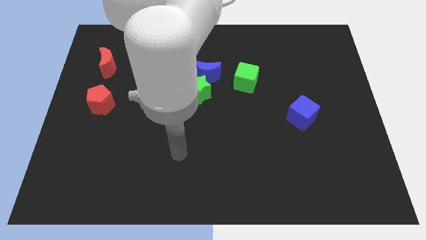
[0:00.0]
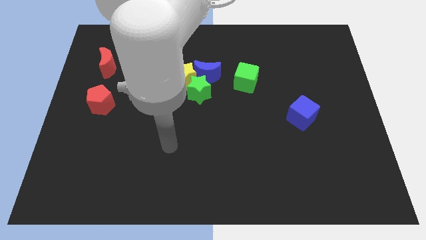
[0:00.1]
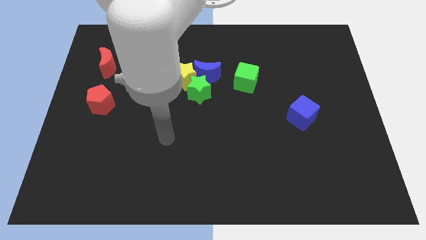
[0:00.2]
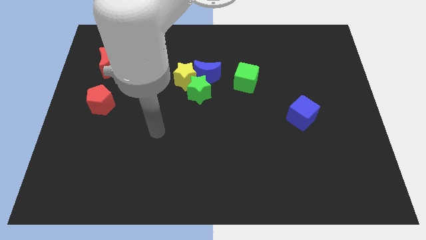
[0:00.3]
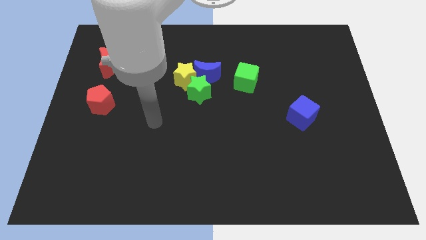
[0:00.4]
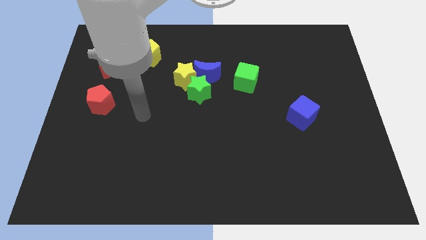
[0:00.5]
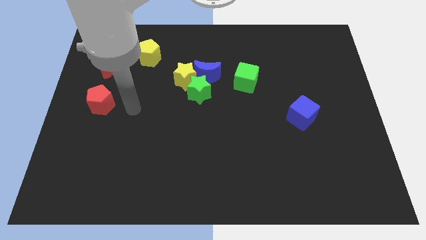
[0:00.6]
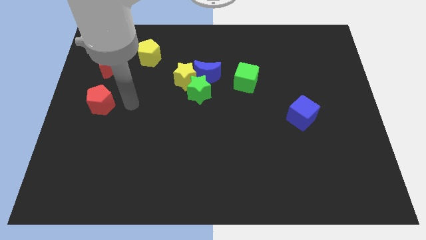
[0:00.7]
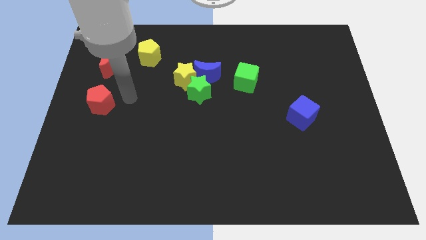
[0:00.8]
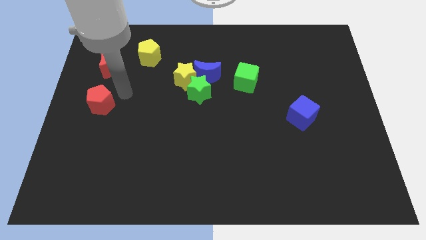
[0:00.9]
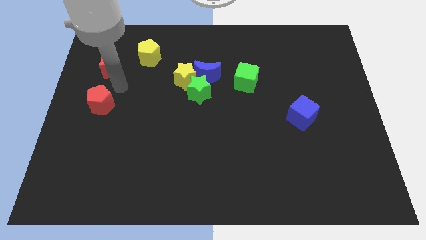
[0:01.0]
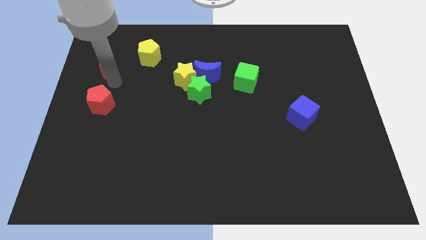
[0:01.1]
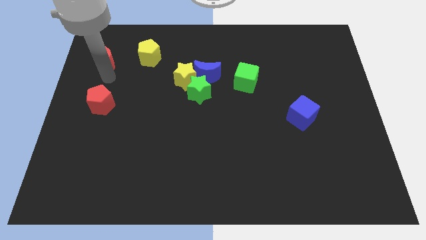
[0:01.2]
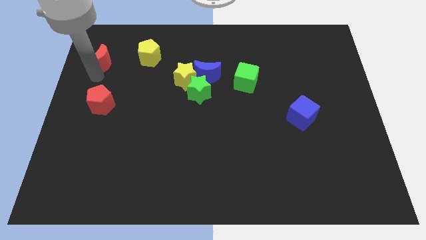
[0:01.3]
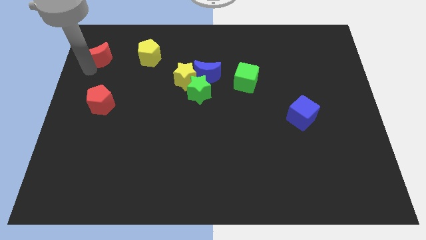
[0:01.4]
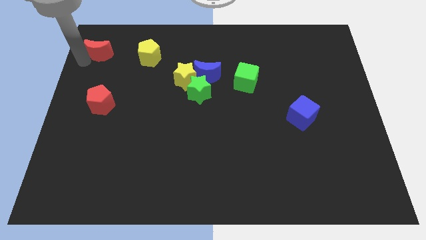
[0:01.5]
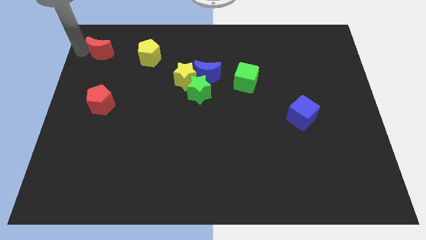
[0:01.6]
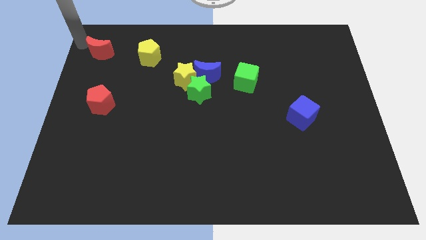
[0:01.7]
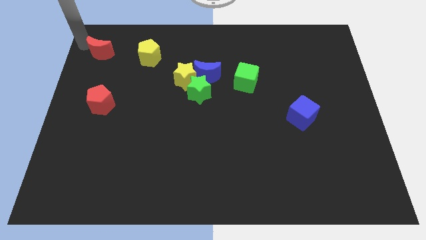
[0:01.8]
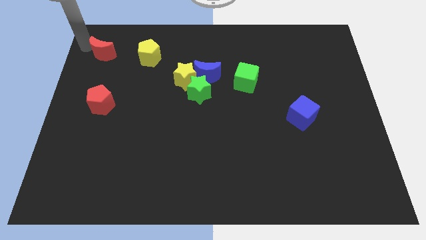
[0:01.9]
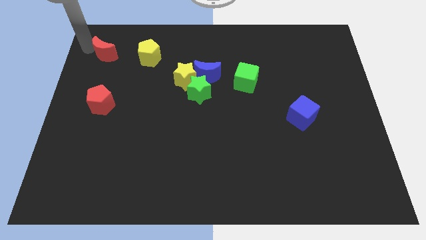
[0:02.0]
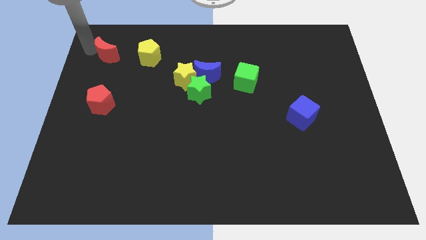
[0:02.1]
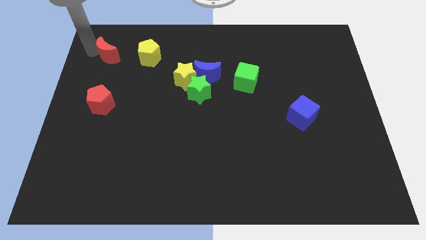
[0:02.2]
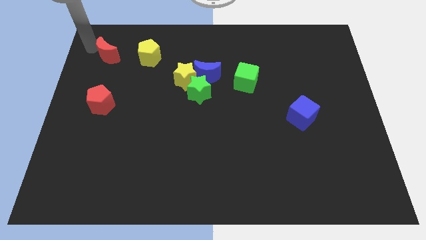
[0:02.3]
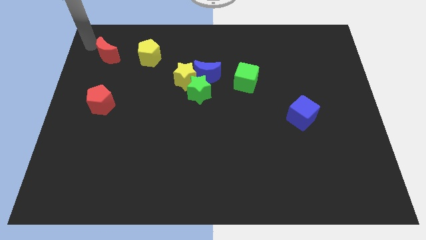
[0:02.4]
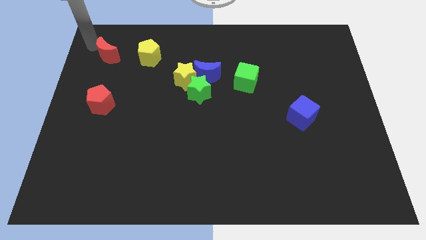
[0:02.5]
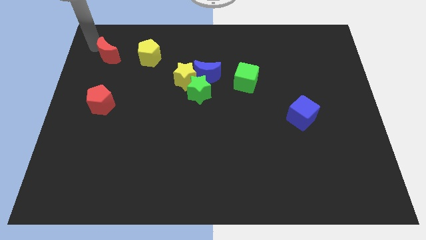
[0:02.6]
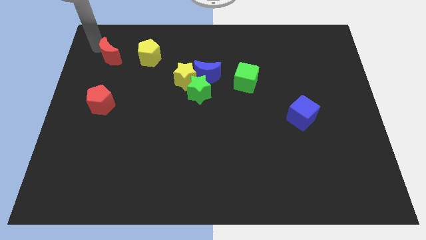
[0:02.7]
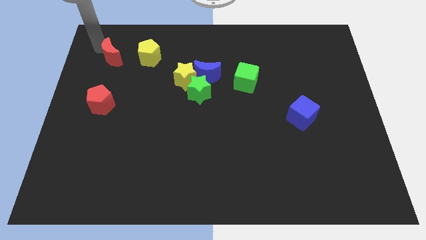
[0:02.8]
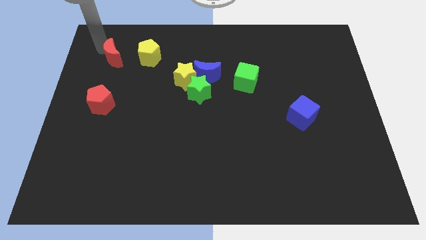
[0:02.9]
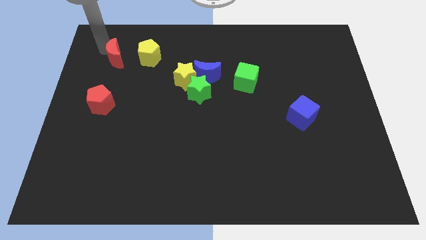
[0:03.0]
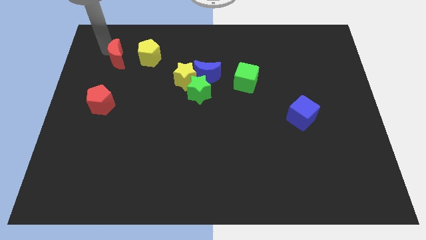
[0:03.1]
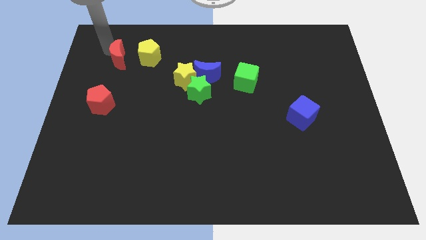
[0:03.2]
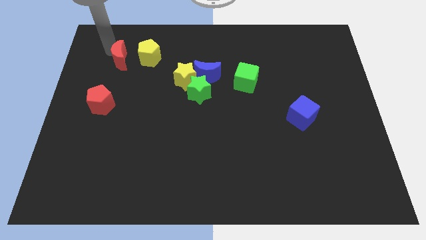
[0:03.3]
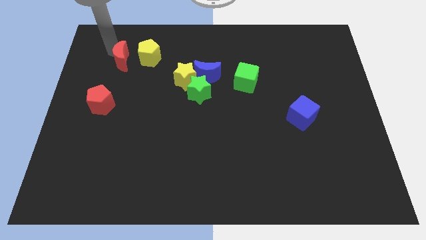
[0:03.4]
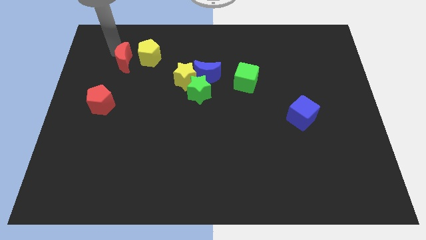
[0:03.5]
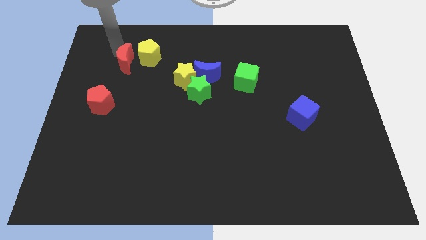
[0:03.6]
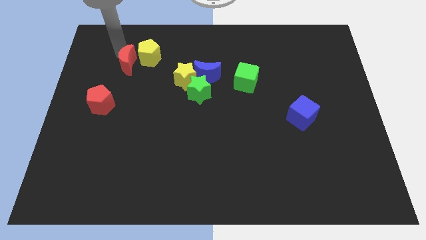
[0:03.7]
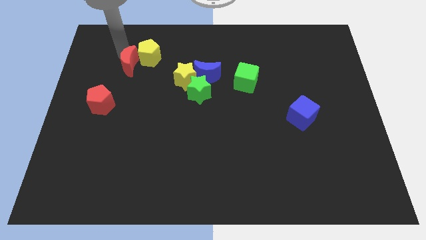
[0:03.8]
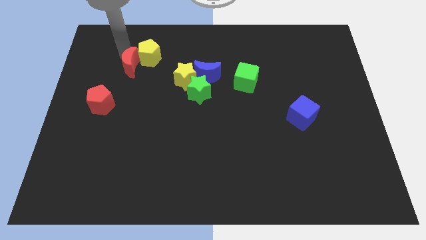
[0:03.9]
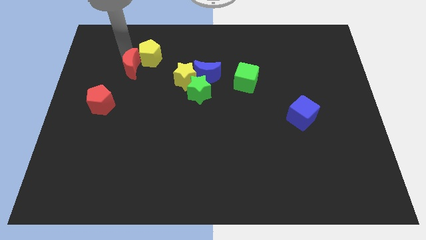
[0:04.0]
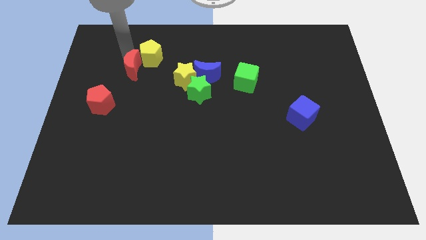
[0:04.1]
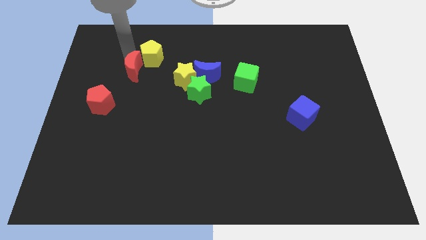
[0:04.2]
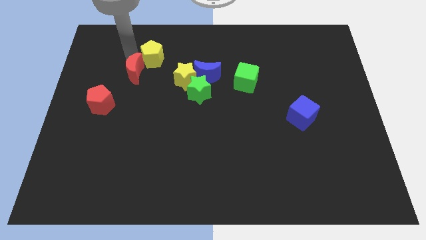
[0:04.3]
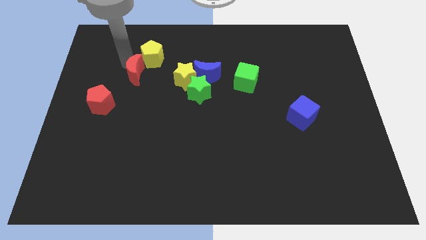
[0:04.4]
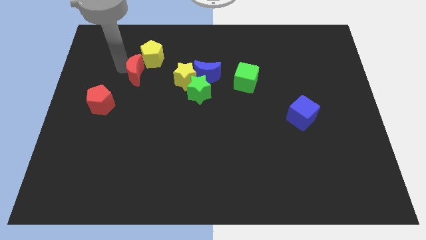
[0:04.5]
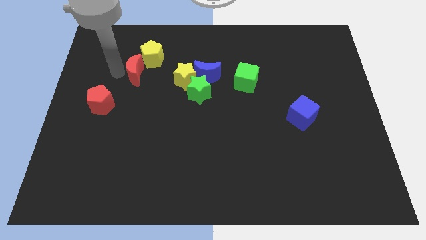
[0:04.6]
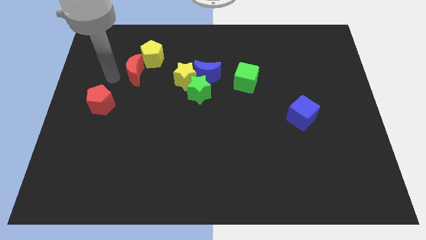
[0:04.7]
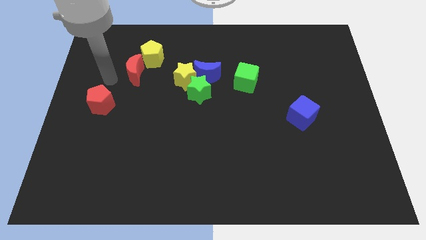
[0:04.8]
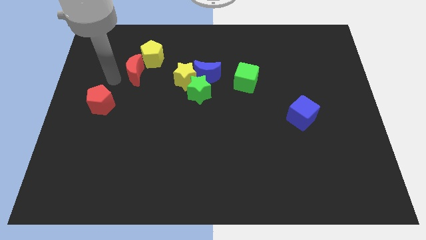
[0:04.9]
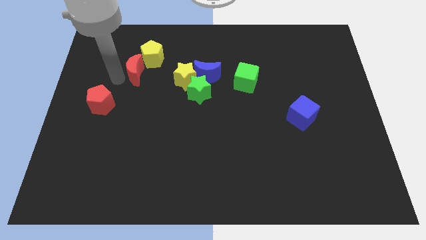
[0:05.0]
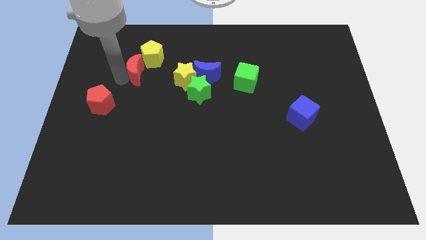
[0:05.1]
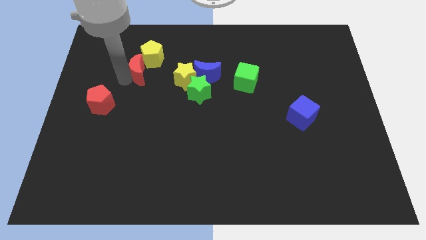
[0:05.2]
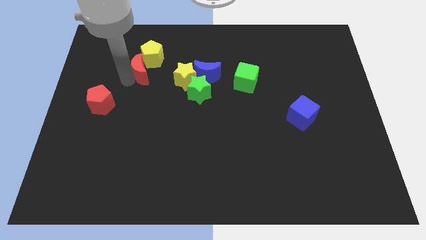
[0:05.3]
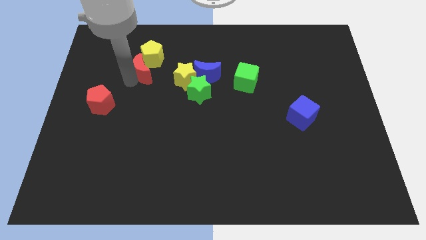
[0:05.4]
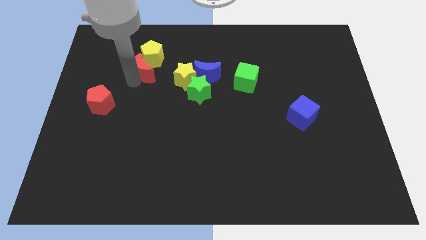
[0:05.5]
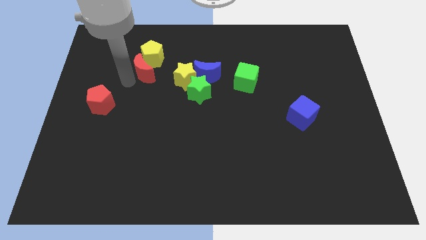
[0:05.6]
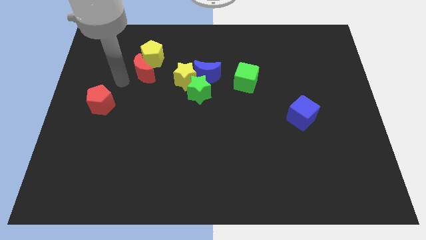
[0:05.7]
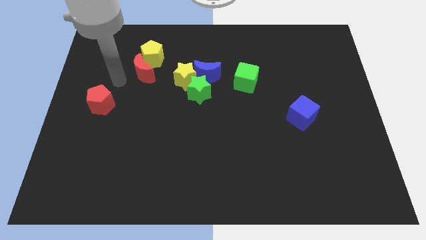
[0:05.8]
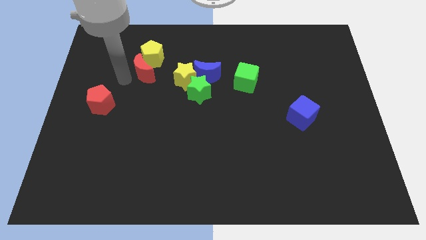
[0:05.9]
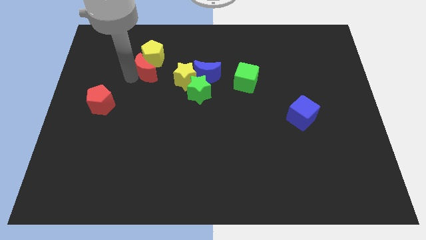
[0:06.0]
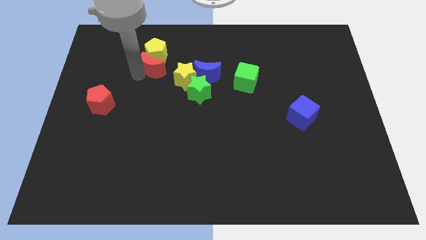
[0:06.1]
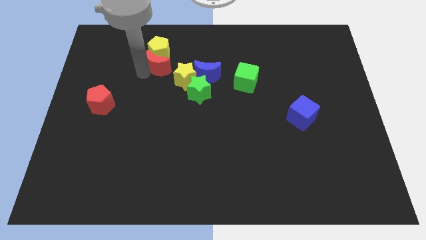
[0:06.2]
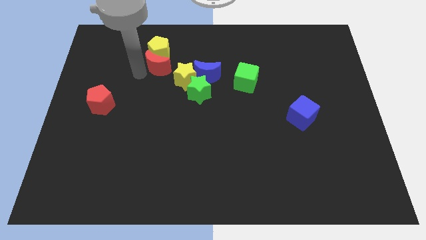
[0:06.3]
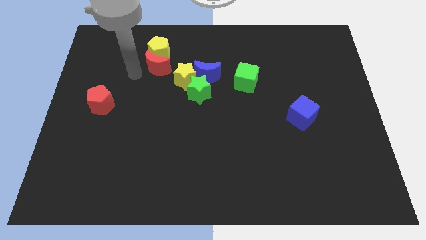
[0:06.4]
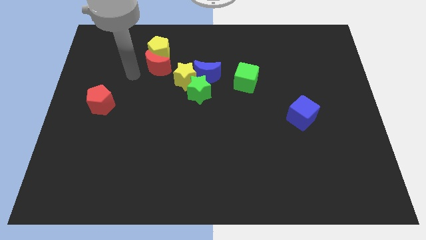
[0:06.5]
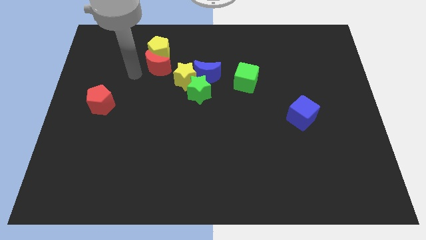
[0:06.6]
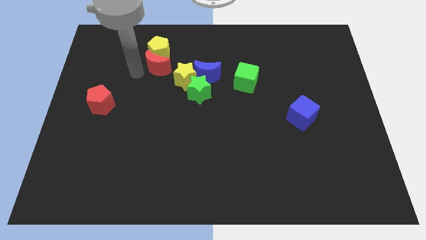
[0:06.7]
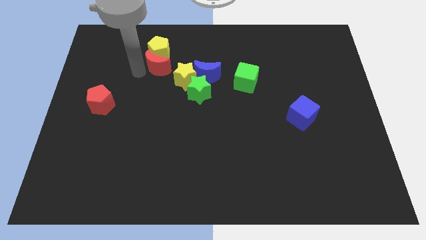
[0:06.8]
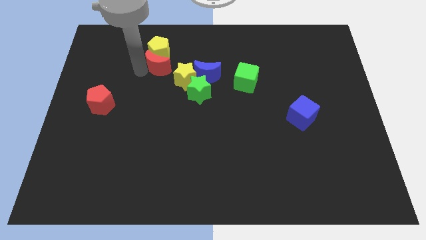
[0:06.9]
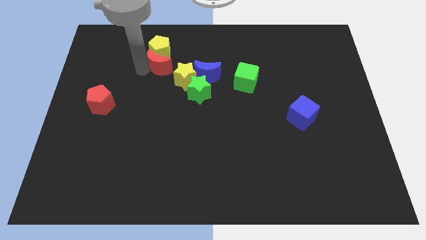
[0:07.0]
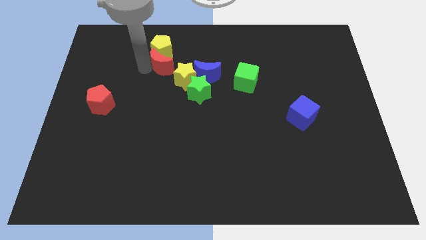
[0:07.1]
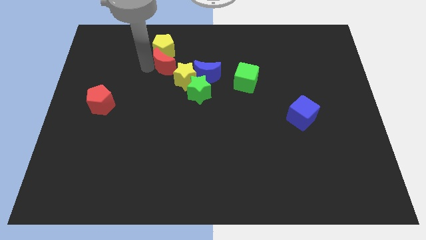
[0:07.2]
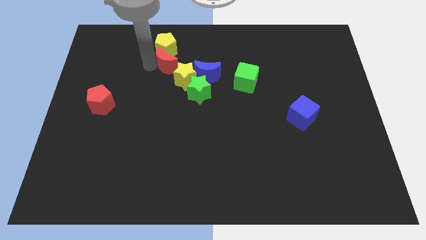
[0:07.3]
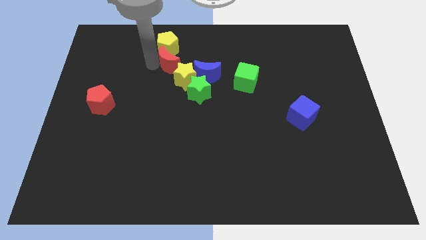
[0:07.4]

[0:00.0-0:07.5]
slide the red moon to the top left side of the blue moon
